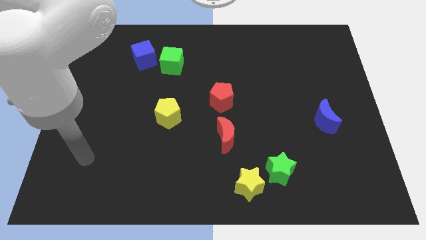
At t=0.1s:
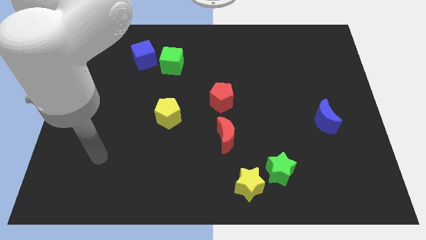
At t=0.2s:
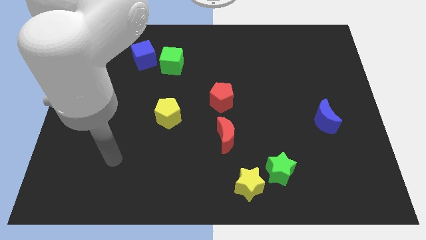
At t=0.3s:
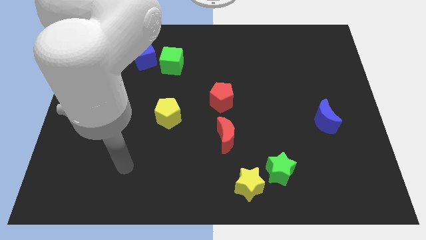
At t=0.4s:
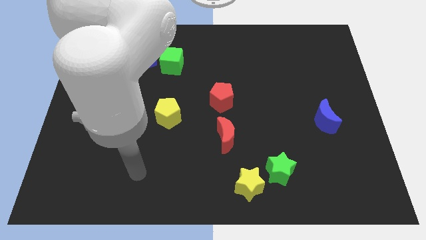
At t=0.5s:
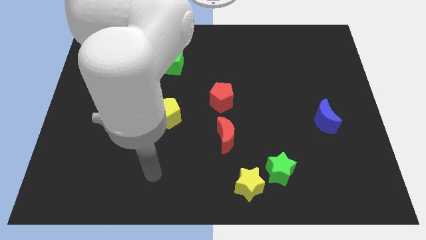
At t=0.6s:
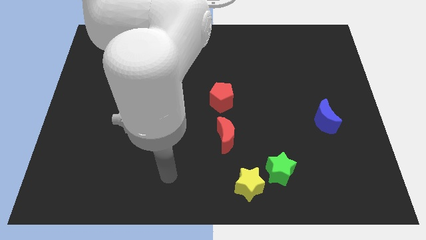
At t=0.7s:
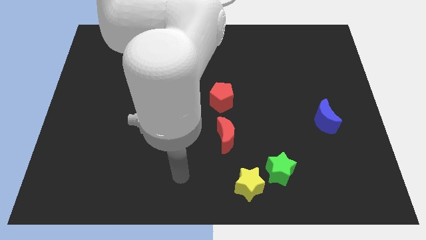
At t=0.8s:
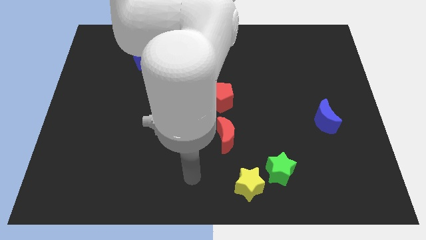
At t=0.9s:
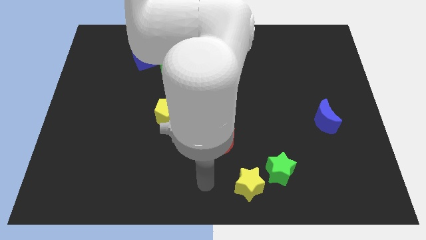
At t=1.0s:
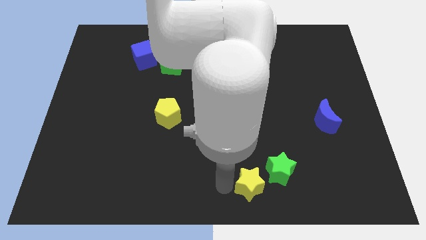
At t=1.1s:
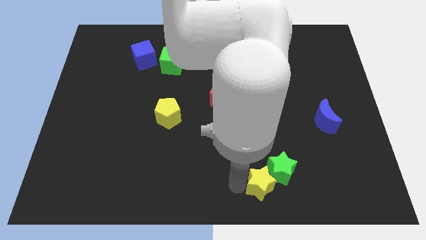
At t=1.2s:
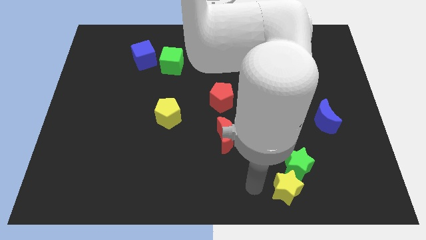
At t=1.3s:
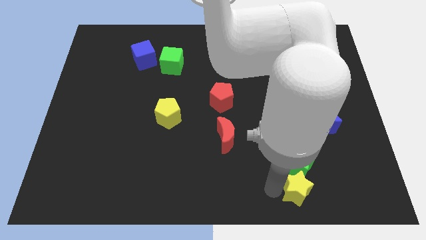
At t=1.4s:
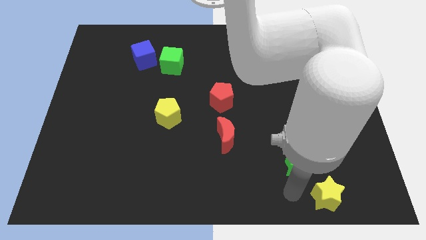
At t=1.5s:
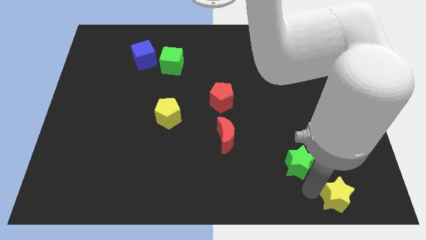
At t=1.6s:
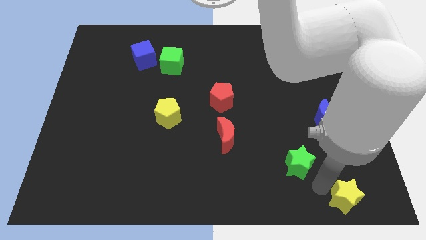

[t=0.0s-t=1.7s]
move the green star away from the yellow star

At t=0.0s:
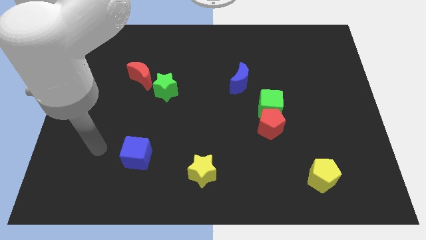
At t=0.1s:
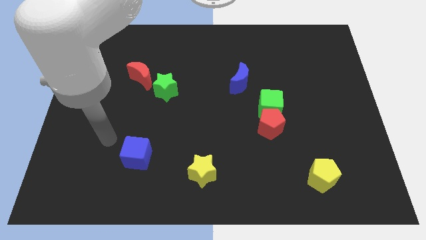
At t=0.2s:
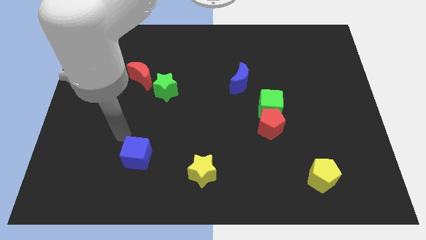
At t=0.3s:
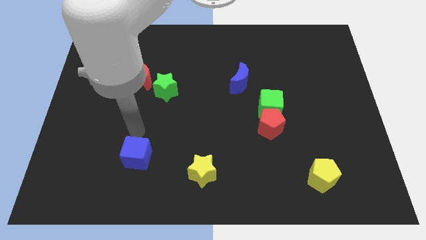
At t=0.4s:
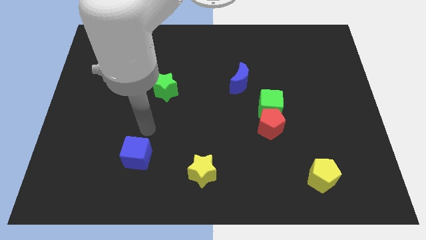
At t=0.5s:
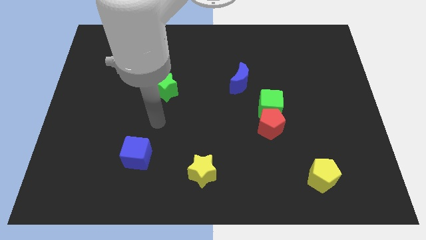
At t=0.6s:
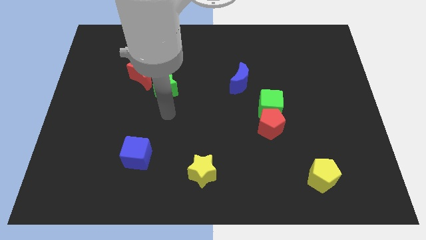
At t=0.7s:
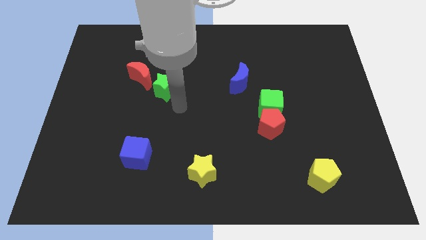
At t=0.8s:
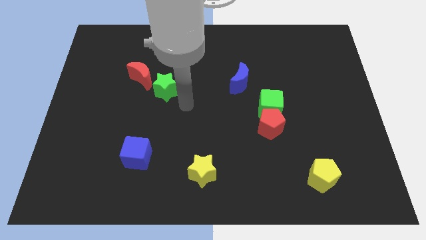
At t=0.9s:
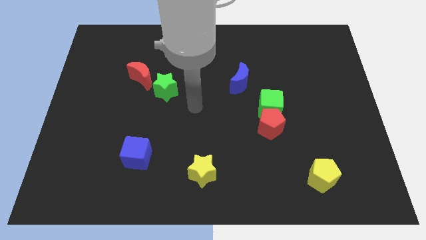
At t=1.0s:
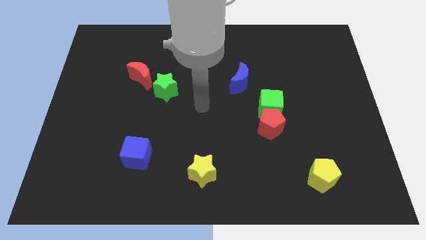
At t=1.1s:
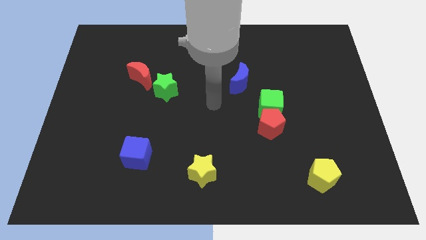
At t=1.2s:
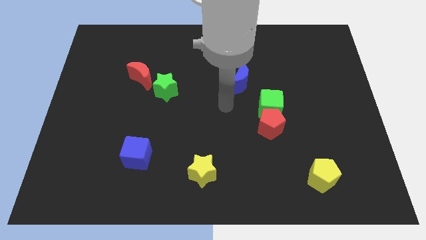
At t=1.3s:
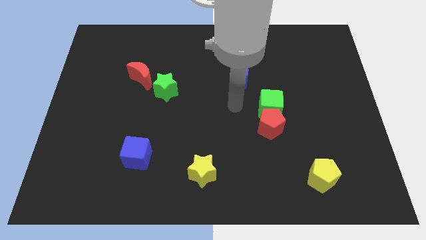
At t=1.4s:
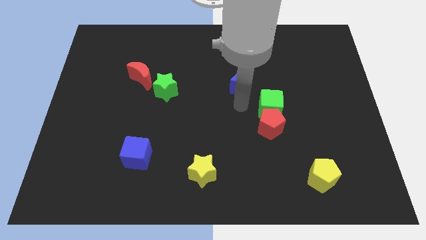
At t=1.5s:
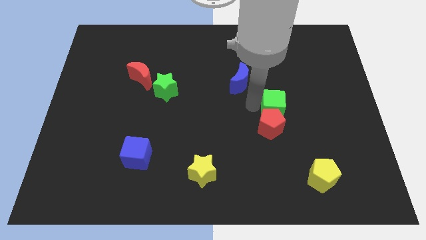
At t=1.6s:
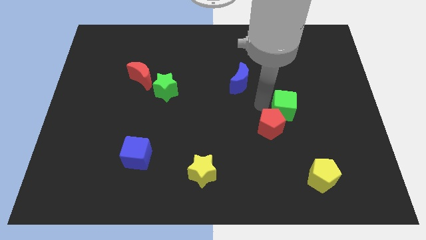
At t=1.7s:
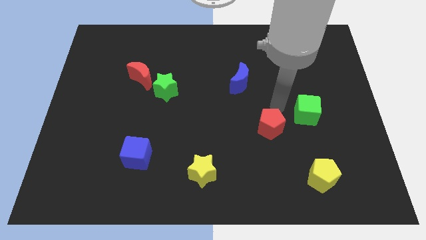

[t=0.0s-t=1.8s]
separate the red pentagon from the green cube

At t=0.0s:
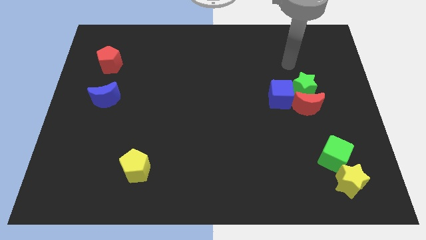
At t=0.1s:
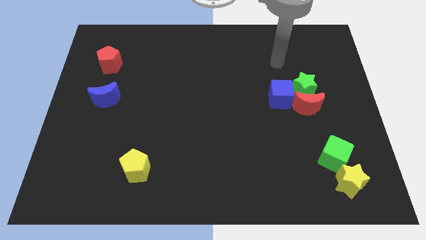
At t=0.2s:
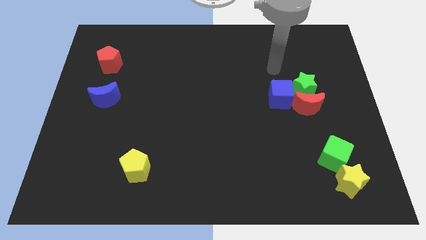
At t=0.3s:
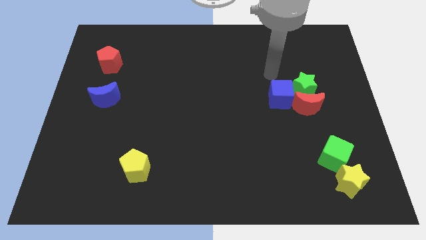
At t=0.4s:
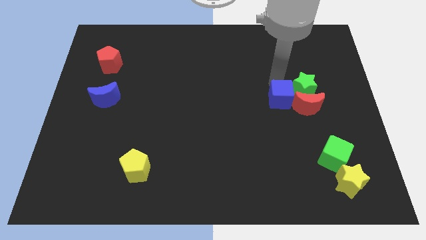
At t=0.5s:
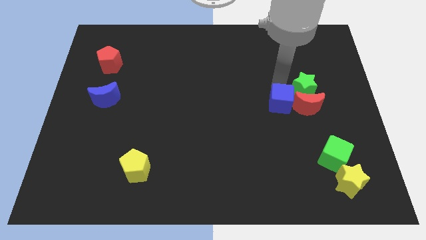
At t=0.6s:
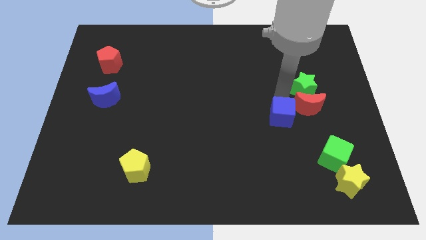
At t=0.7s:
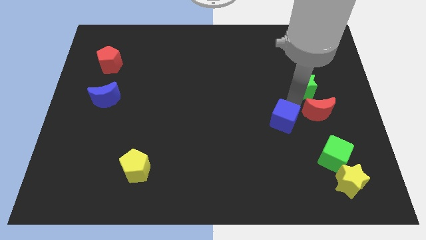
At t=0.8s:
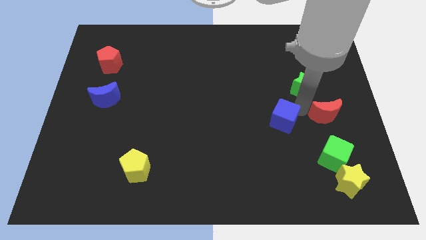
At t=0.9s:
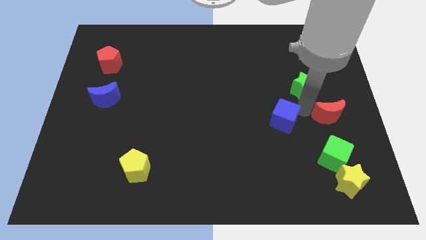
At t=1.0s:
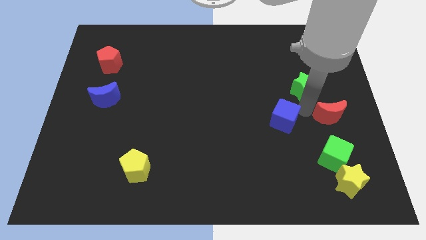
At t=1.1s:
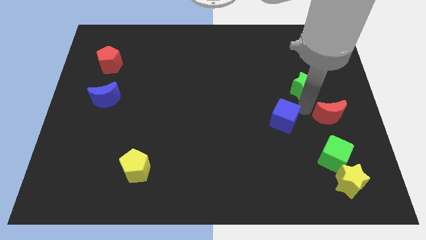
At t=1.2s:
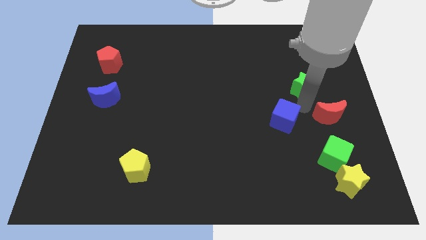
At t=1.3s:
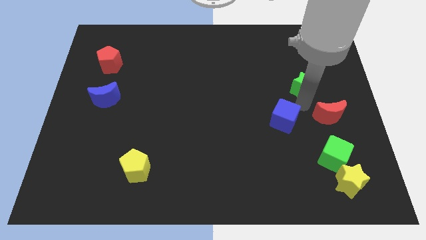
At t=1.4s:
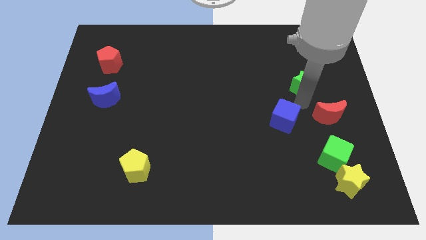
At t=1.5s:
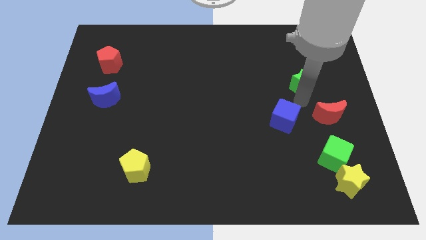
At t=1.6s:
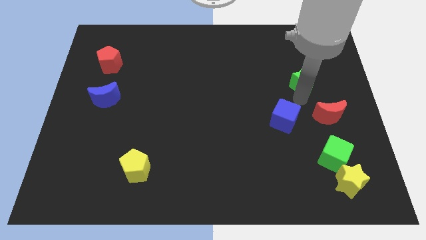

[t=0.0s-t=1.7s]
move the green star away from the red moon and blue cube

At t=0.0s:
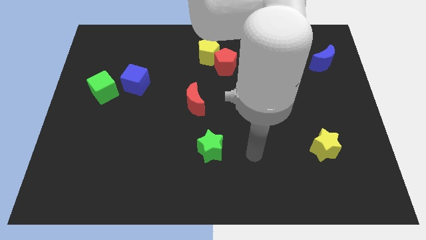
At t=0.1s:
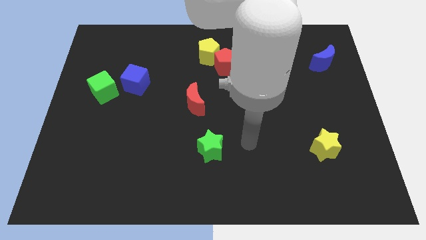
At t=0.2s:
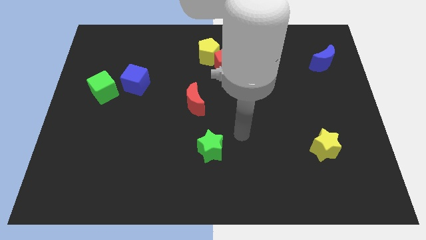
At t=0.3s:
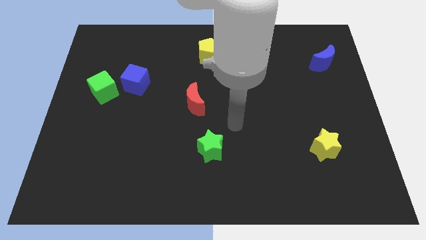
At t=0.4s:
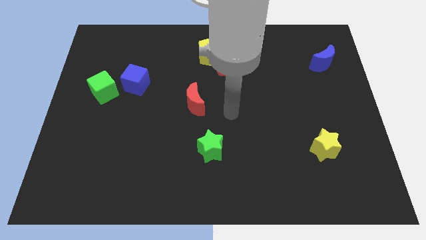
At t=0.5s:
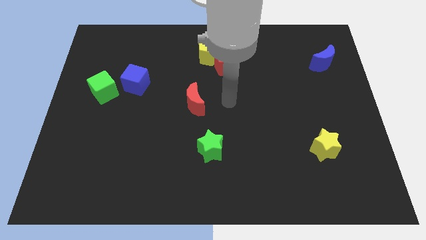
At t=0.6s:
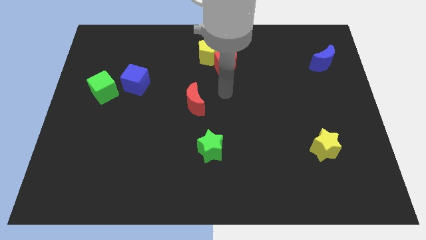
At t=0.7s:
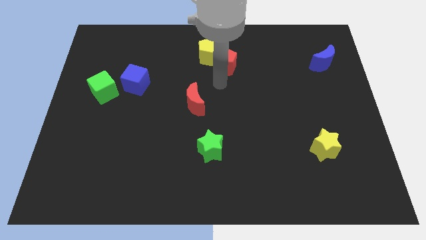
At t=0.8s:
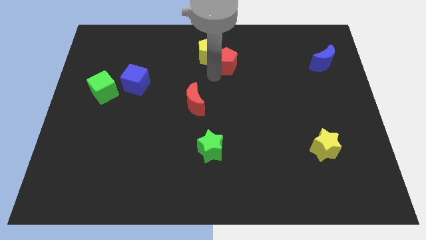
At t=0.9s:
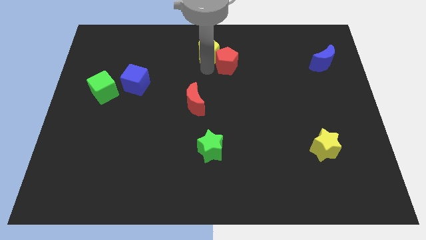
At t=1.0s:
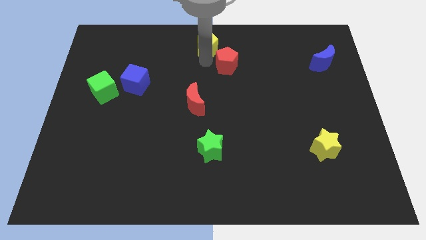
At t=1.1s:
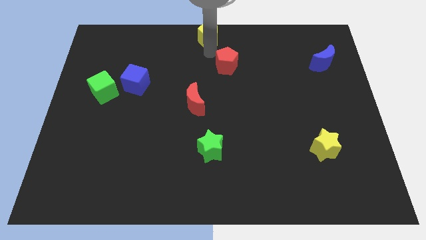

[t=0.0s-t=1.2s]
pull the red pentagon apart from the yellow pentagon

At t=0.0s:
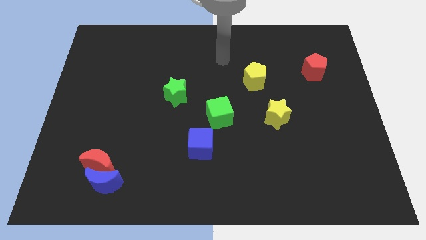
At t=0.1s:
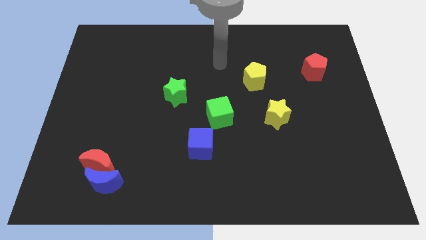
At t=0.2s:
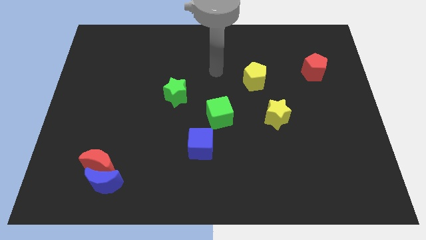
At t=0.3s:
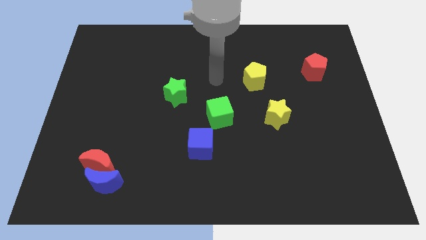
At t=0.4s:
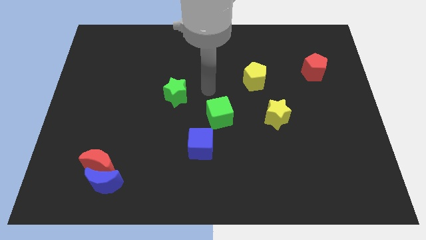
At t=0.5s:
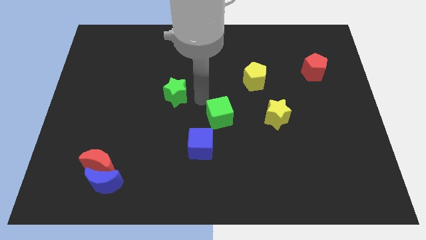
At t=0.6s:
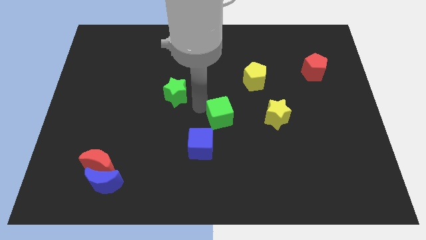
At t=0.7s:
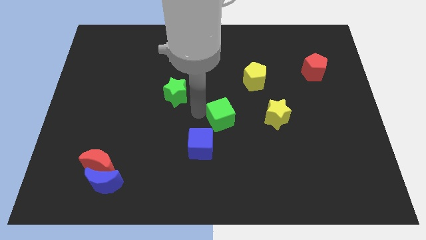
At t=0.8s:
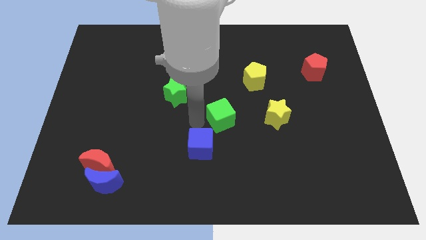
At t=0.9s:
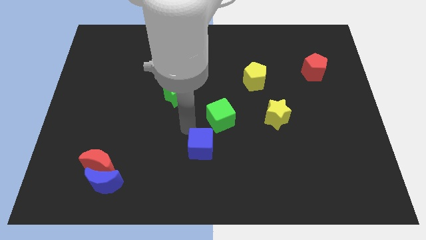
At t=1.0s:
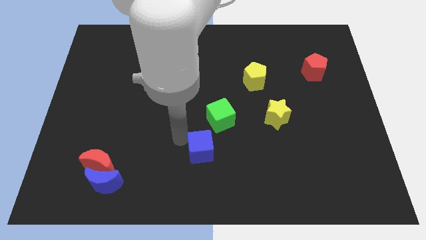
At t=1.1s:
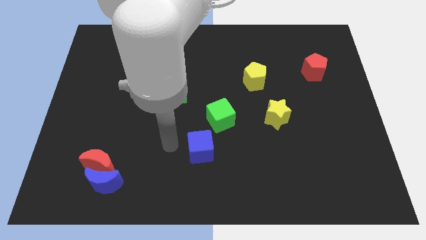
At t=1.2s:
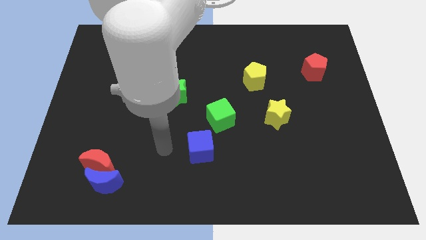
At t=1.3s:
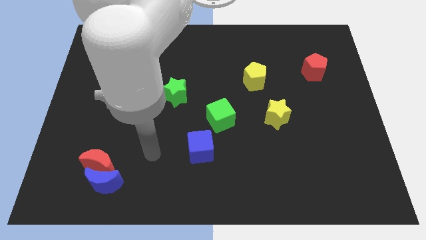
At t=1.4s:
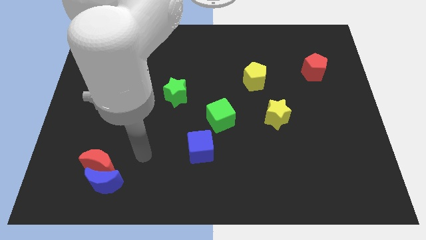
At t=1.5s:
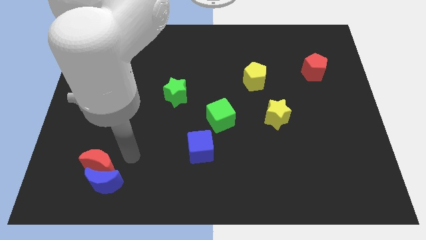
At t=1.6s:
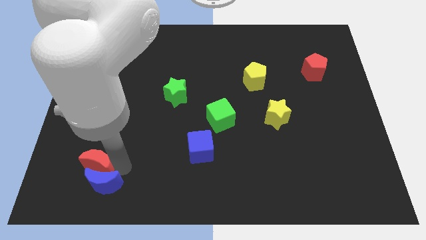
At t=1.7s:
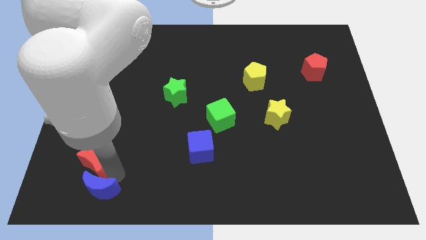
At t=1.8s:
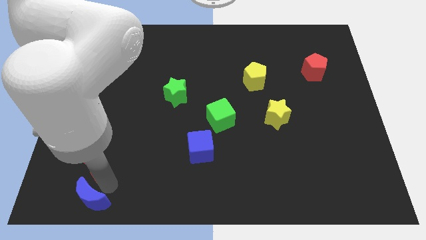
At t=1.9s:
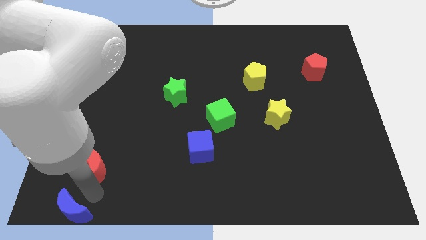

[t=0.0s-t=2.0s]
separate the red moon from the blue moon

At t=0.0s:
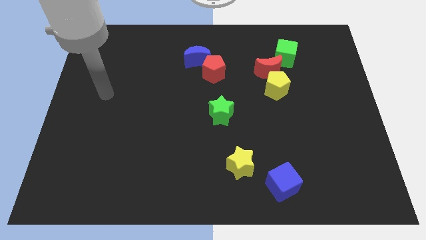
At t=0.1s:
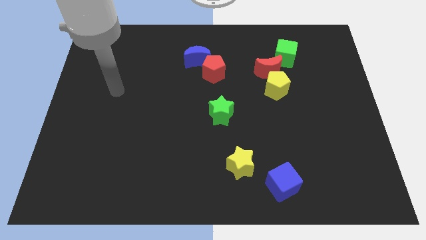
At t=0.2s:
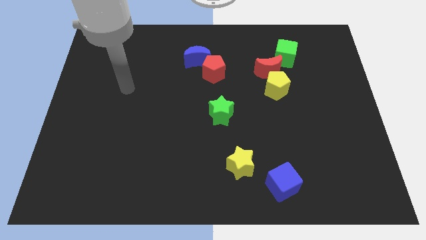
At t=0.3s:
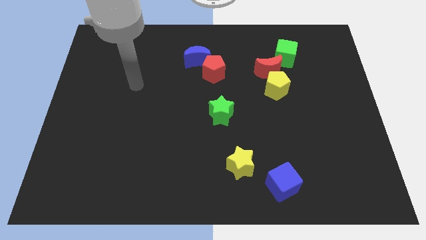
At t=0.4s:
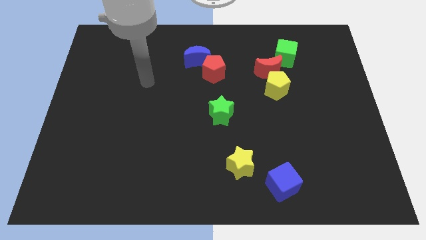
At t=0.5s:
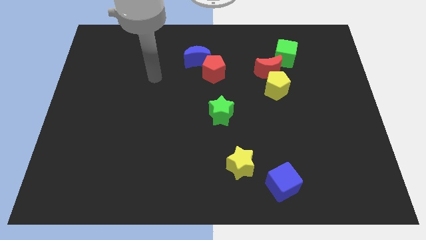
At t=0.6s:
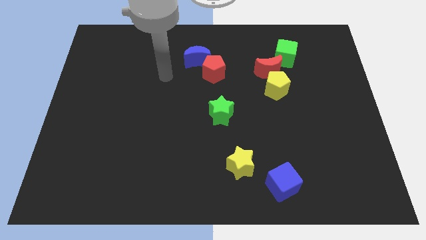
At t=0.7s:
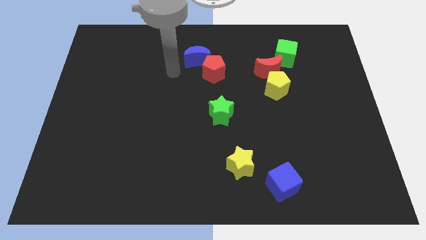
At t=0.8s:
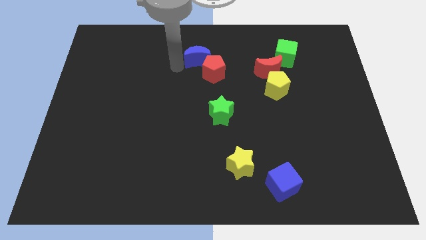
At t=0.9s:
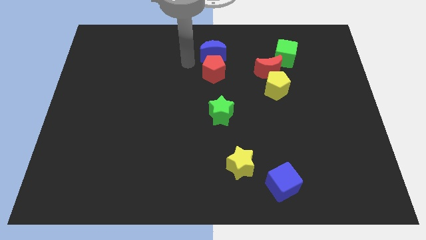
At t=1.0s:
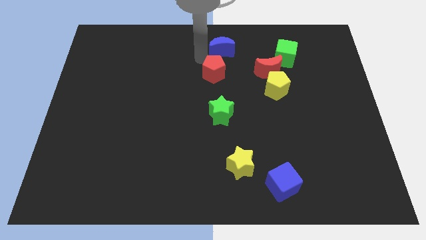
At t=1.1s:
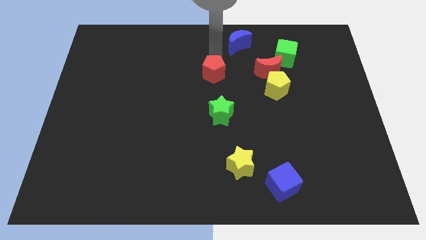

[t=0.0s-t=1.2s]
move the red pentagon away from the blue moon
